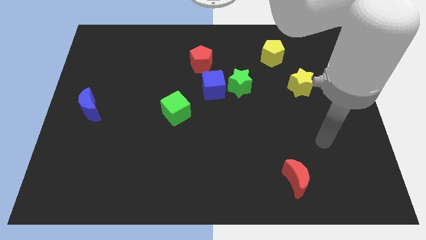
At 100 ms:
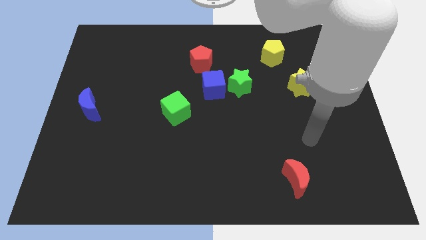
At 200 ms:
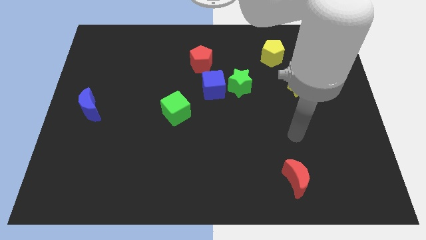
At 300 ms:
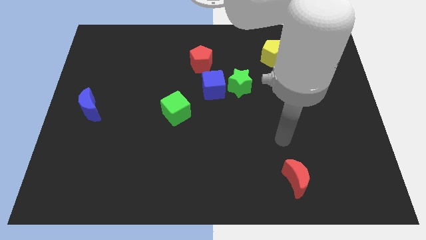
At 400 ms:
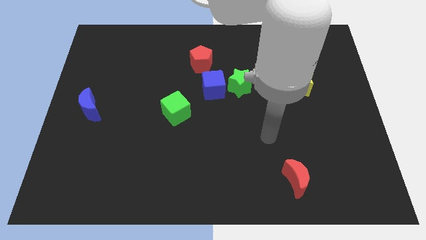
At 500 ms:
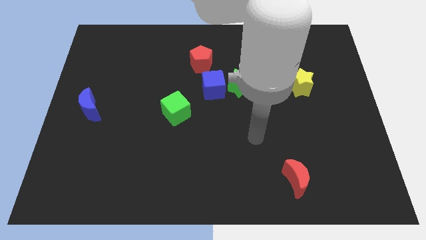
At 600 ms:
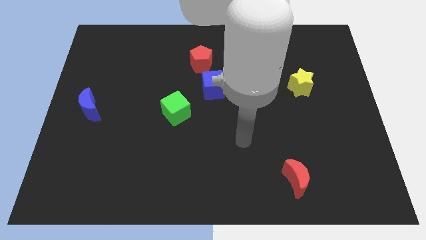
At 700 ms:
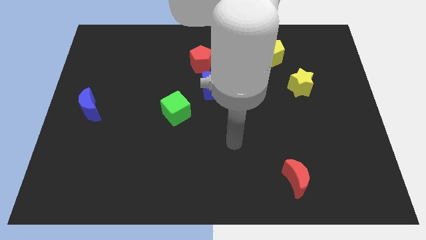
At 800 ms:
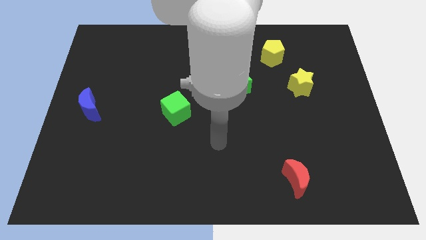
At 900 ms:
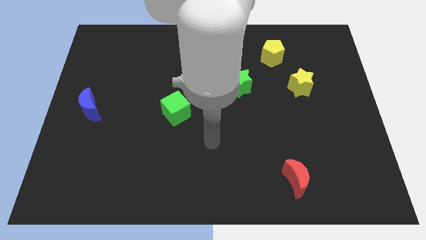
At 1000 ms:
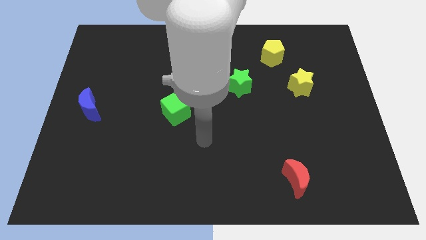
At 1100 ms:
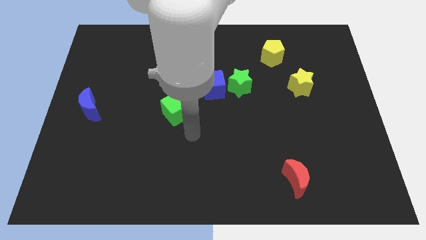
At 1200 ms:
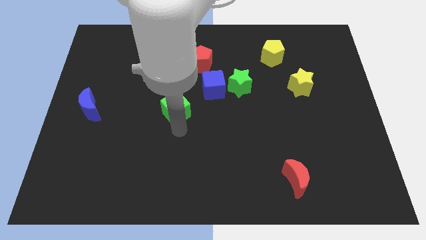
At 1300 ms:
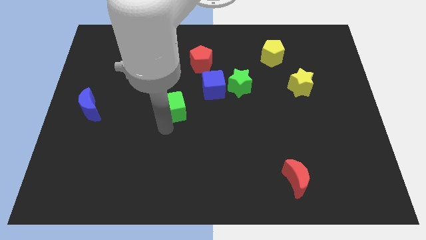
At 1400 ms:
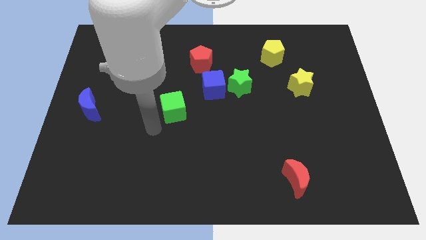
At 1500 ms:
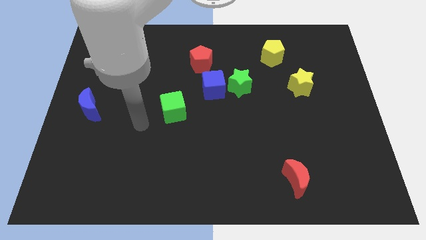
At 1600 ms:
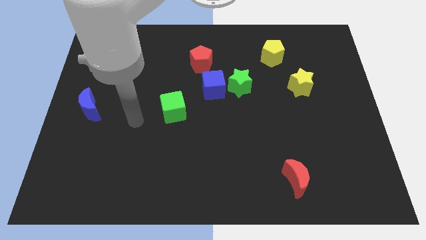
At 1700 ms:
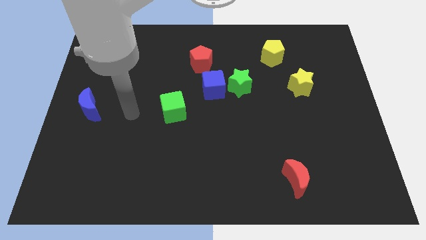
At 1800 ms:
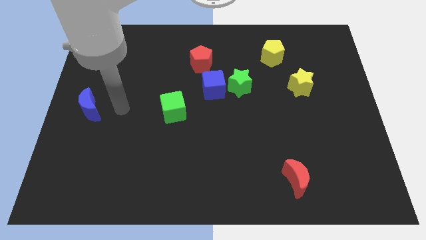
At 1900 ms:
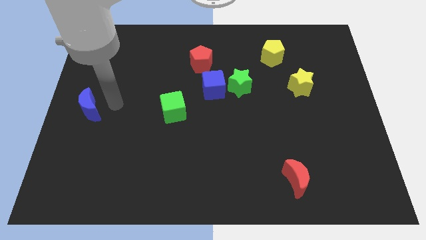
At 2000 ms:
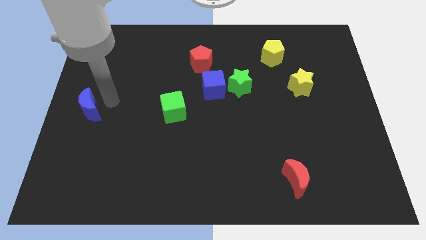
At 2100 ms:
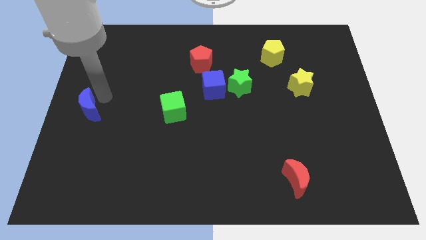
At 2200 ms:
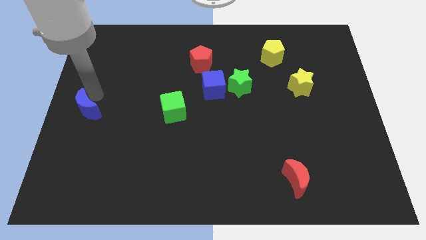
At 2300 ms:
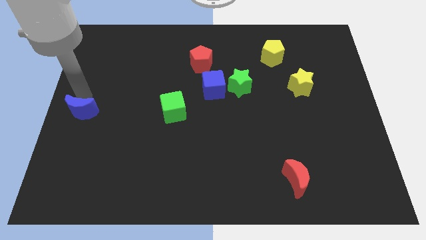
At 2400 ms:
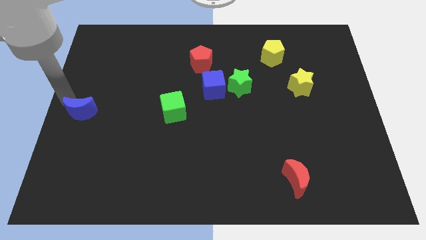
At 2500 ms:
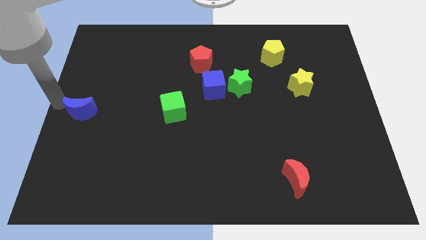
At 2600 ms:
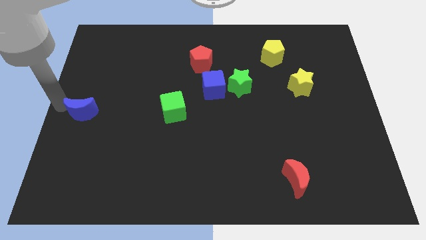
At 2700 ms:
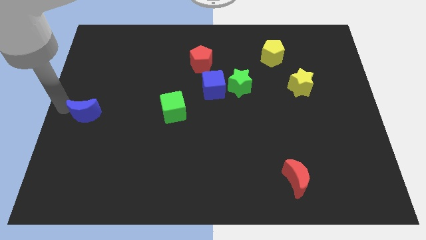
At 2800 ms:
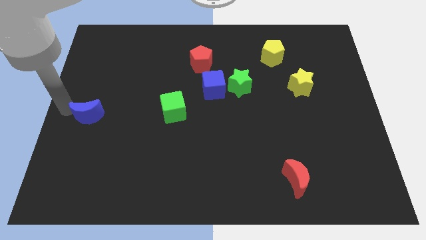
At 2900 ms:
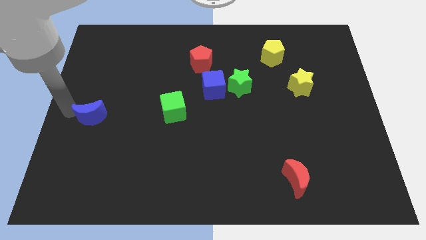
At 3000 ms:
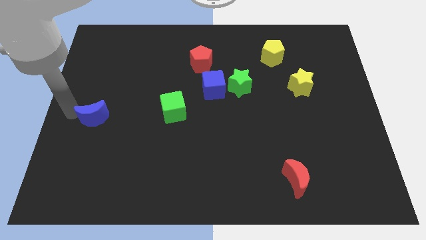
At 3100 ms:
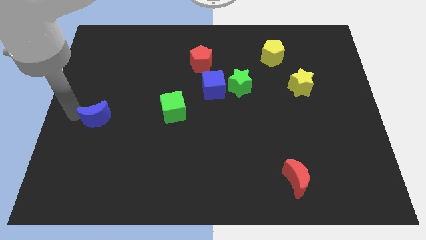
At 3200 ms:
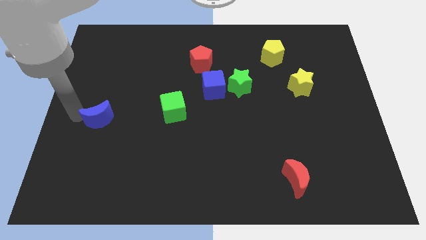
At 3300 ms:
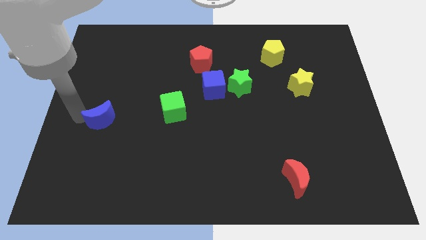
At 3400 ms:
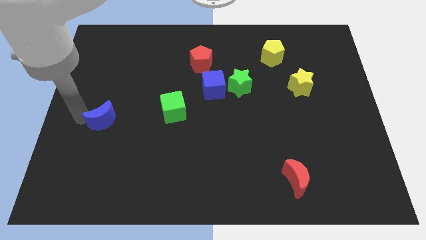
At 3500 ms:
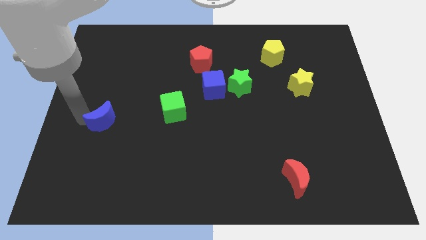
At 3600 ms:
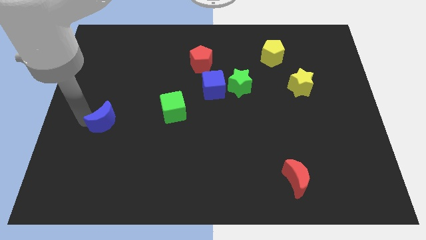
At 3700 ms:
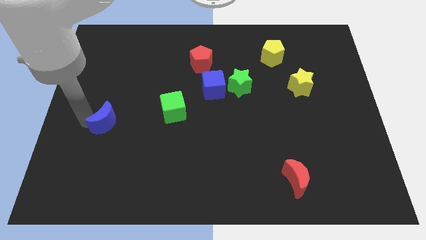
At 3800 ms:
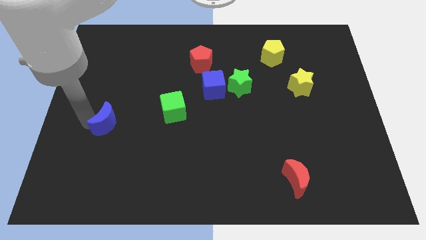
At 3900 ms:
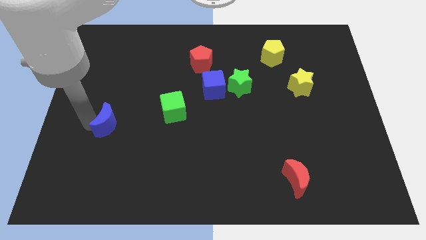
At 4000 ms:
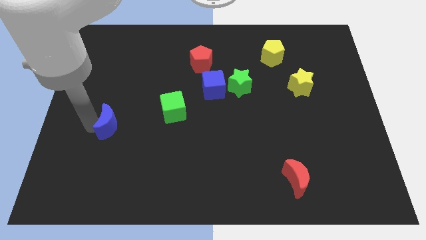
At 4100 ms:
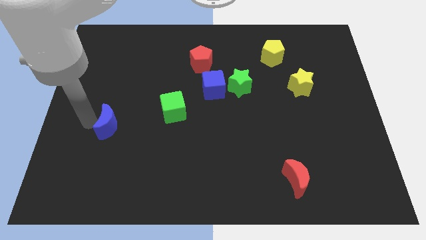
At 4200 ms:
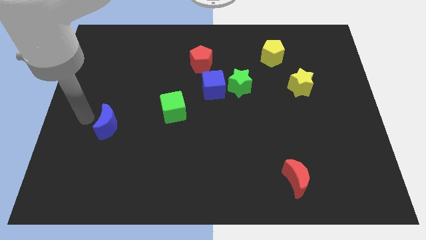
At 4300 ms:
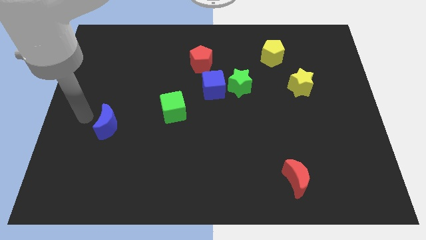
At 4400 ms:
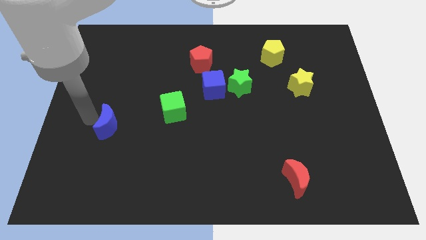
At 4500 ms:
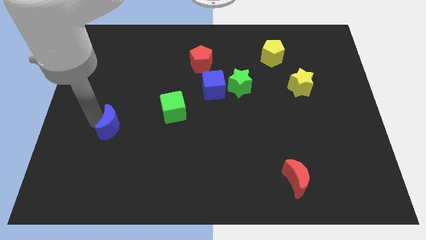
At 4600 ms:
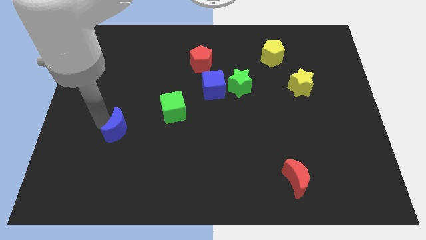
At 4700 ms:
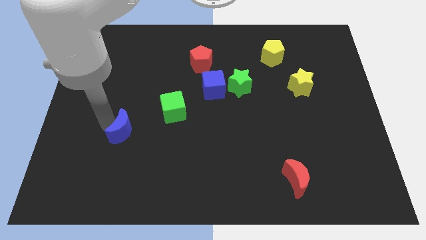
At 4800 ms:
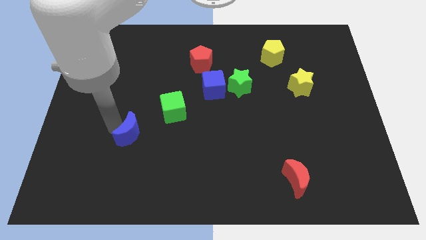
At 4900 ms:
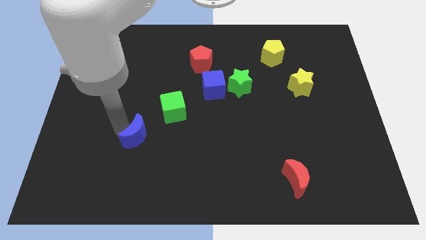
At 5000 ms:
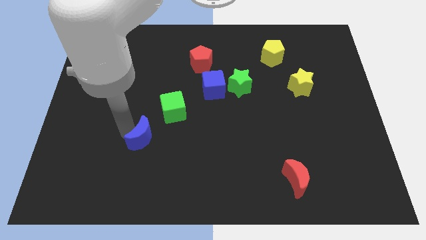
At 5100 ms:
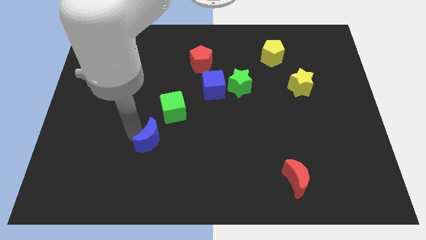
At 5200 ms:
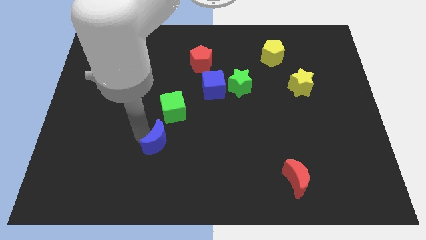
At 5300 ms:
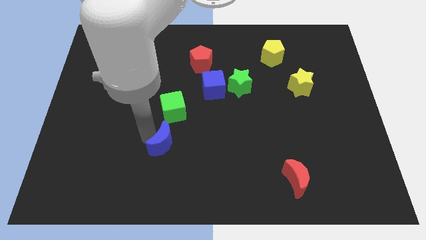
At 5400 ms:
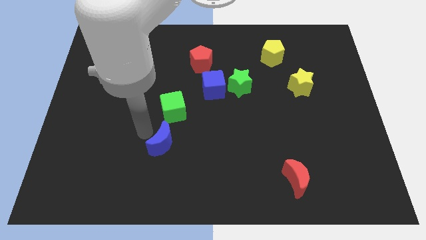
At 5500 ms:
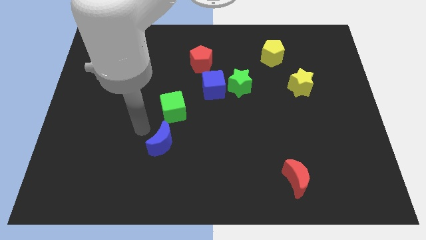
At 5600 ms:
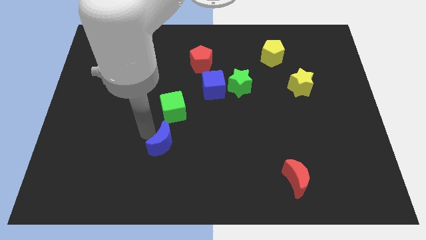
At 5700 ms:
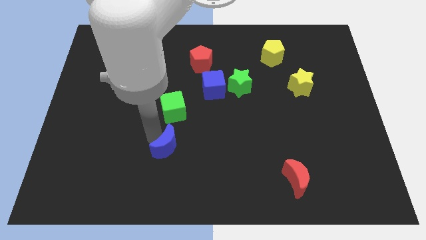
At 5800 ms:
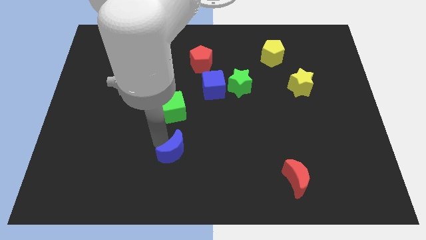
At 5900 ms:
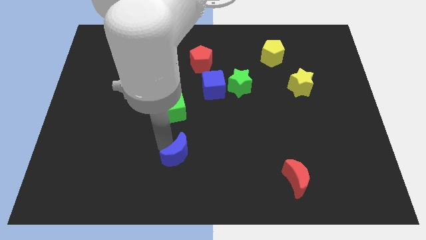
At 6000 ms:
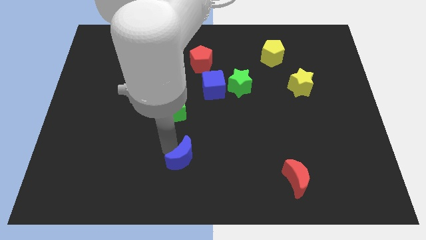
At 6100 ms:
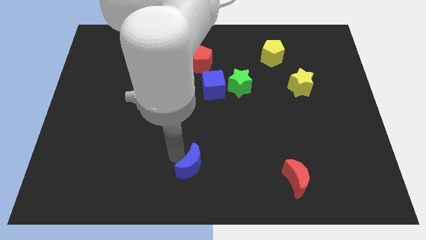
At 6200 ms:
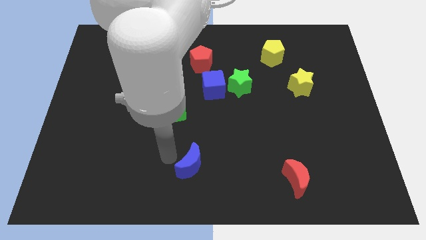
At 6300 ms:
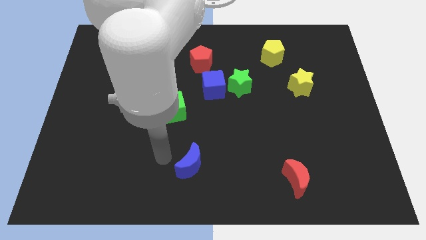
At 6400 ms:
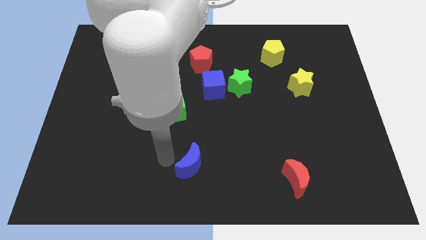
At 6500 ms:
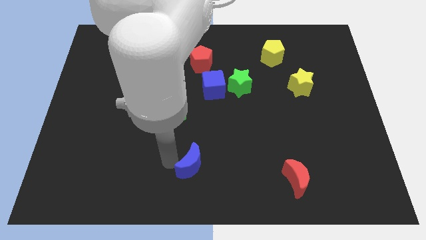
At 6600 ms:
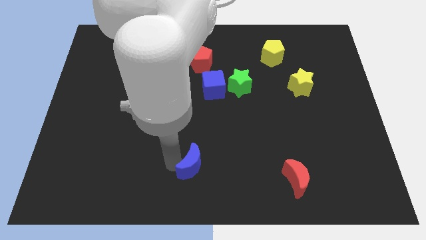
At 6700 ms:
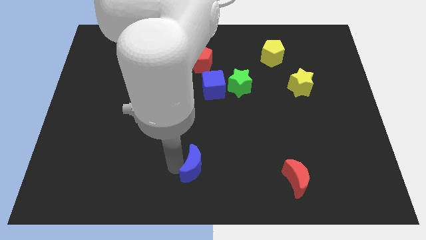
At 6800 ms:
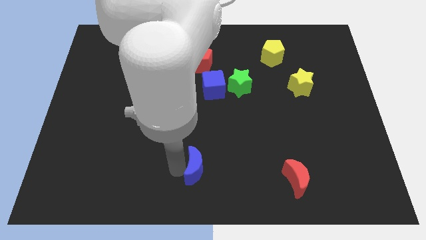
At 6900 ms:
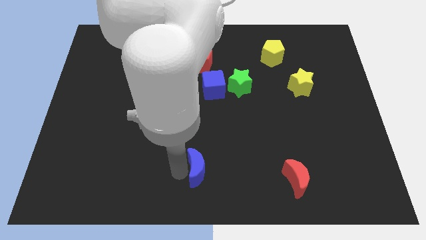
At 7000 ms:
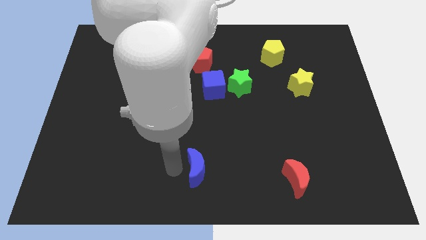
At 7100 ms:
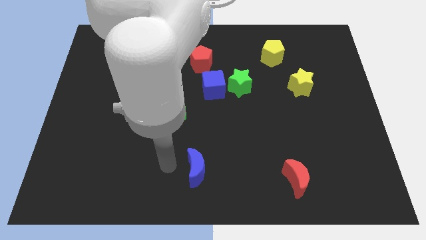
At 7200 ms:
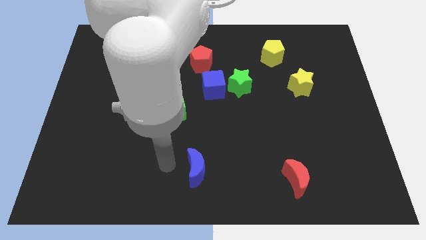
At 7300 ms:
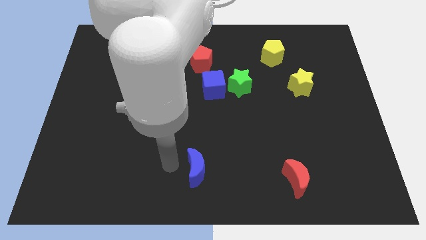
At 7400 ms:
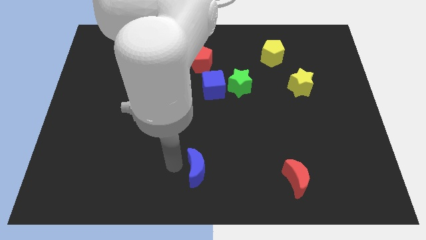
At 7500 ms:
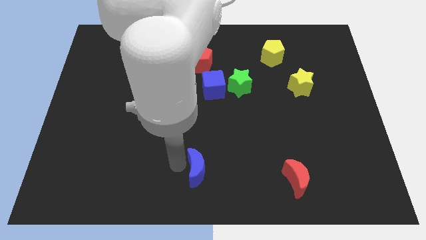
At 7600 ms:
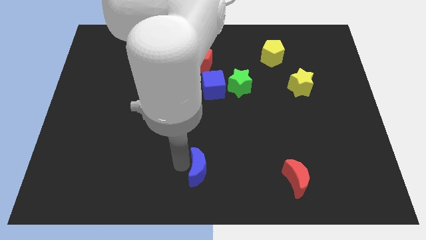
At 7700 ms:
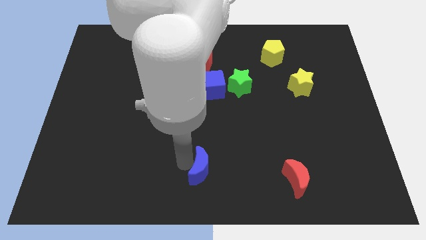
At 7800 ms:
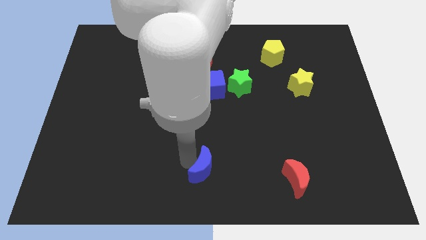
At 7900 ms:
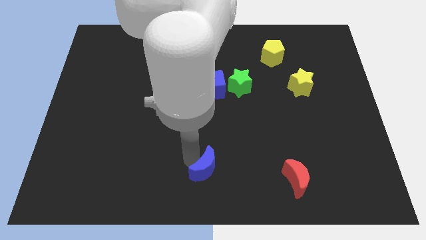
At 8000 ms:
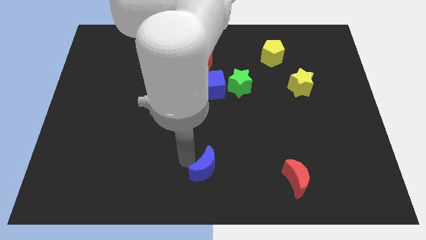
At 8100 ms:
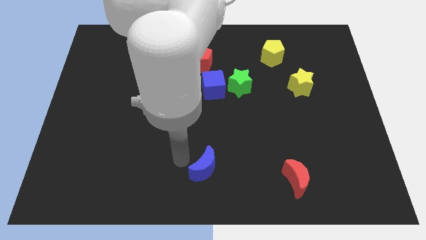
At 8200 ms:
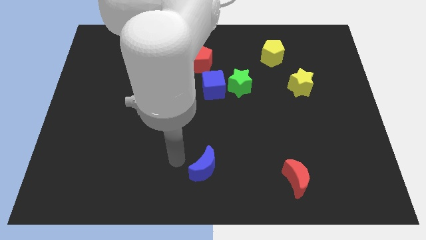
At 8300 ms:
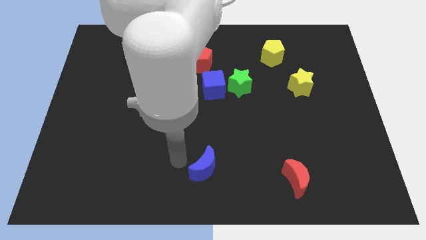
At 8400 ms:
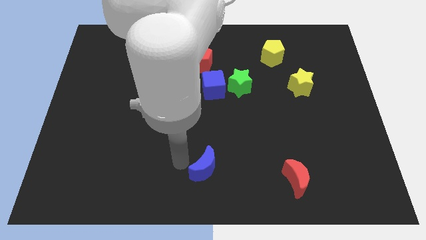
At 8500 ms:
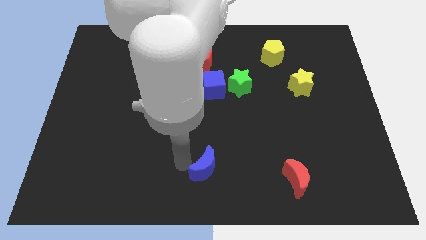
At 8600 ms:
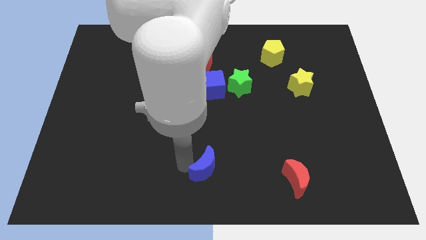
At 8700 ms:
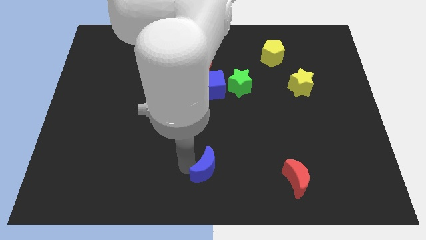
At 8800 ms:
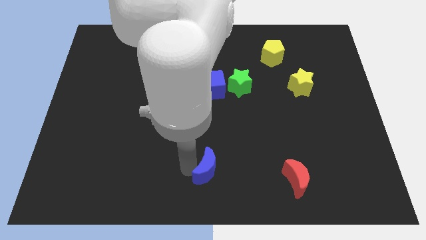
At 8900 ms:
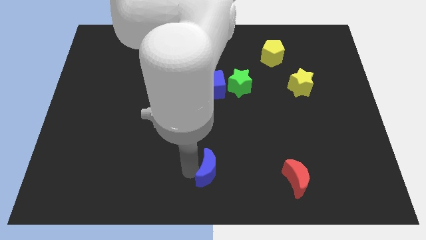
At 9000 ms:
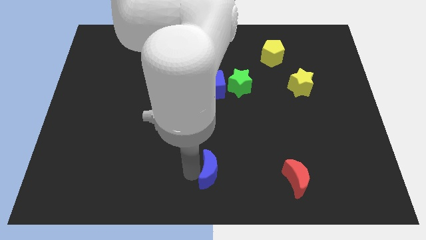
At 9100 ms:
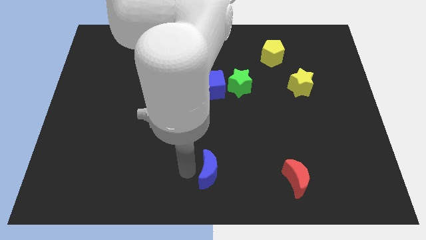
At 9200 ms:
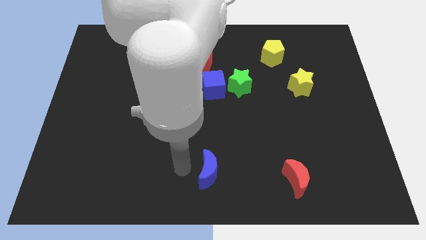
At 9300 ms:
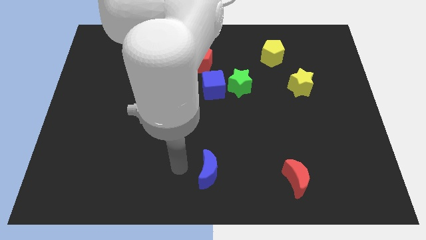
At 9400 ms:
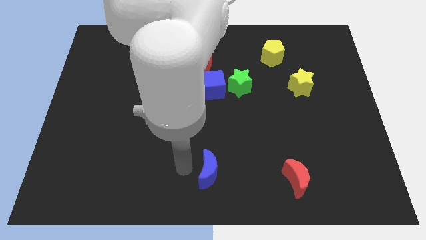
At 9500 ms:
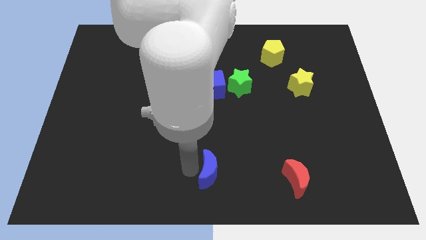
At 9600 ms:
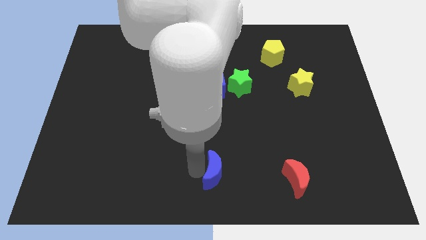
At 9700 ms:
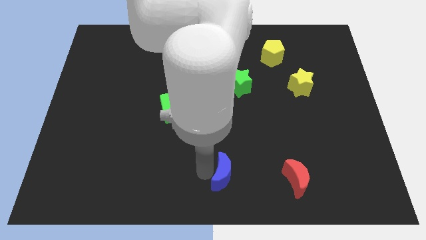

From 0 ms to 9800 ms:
put the blue moon left of the red moon
